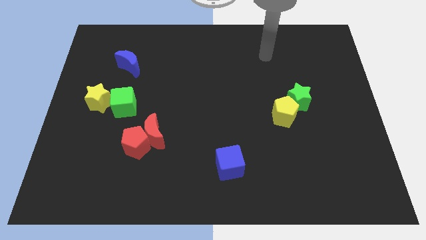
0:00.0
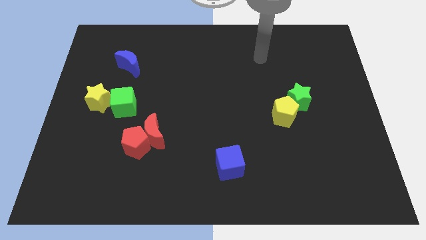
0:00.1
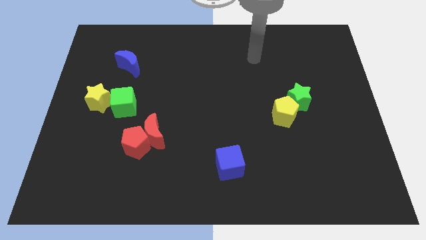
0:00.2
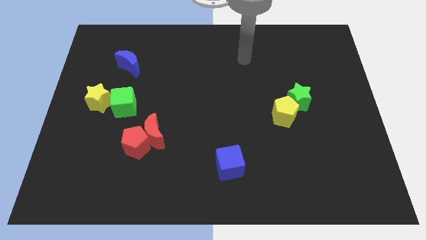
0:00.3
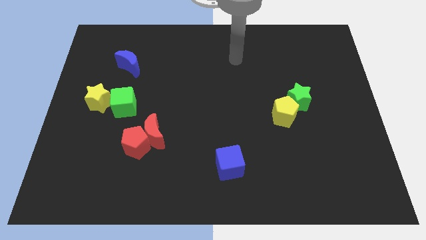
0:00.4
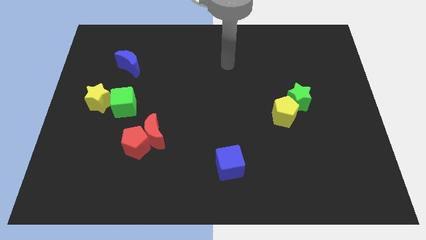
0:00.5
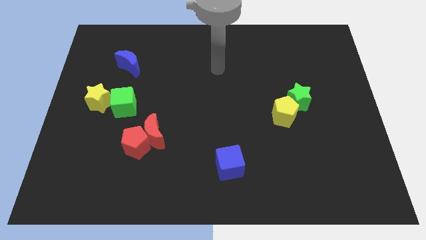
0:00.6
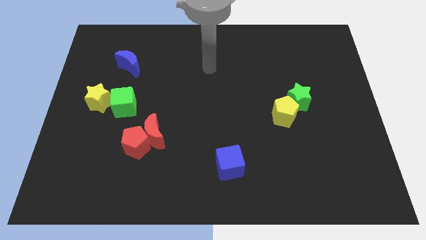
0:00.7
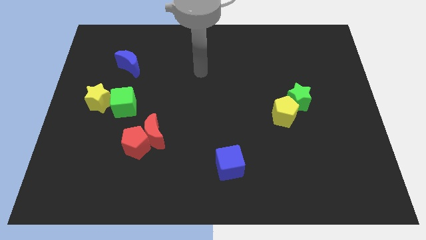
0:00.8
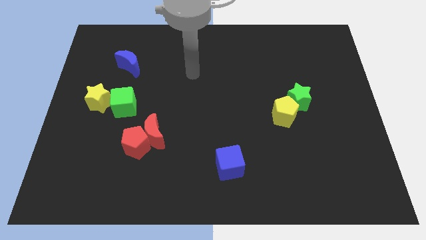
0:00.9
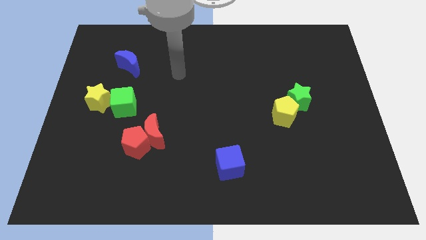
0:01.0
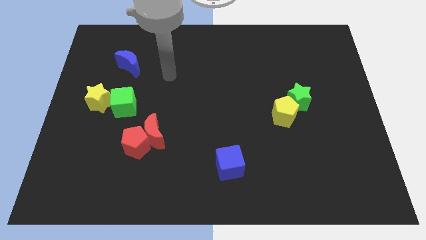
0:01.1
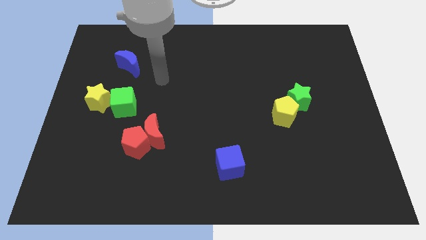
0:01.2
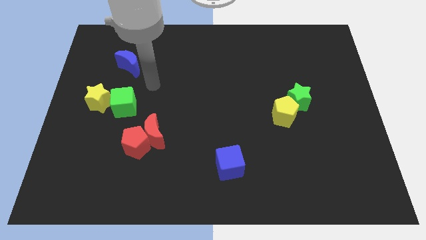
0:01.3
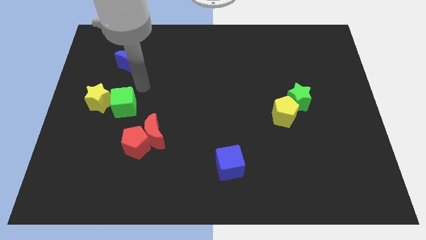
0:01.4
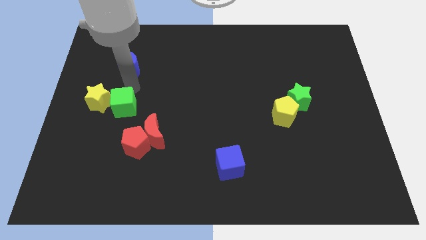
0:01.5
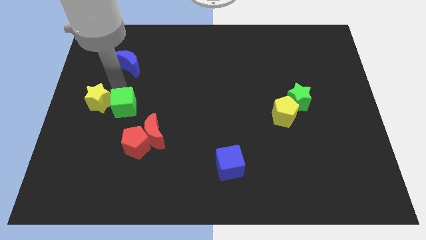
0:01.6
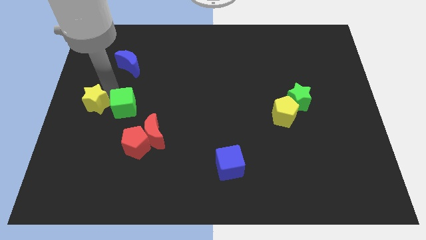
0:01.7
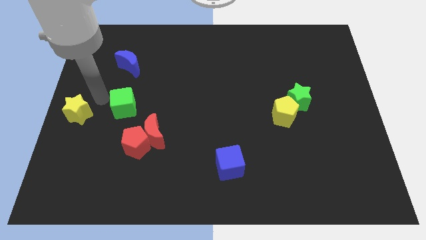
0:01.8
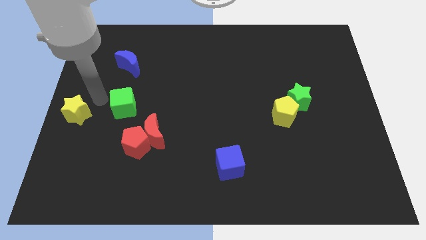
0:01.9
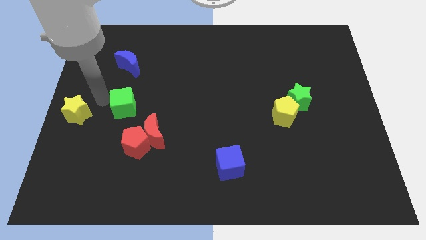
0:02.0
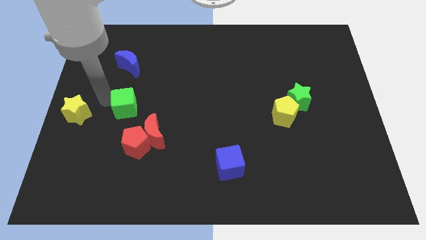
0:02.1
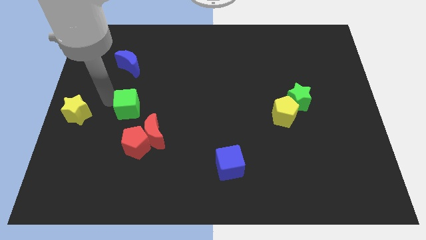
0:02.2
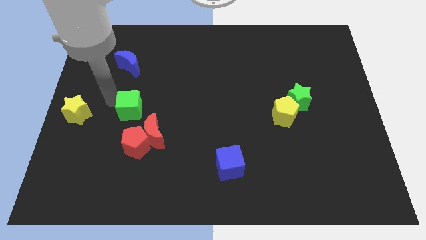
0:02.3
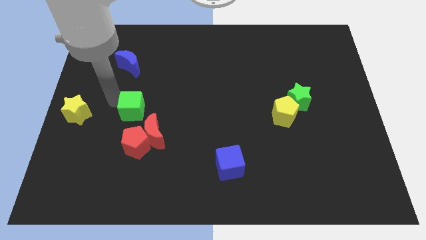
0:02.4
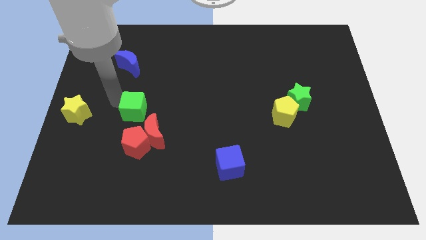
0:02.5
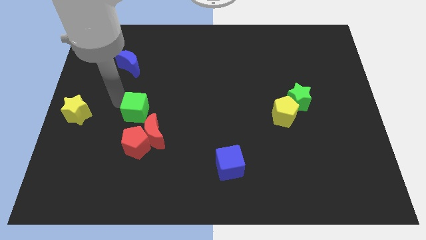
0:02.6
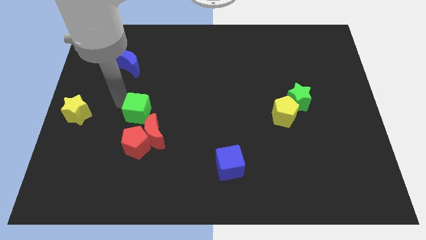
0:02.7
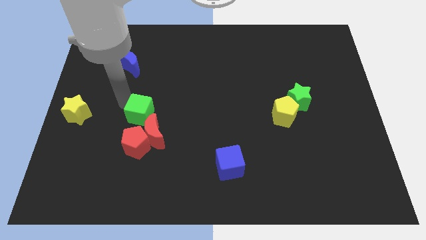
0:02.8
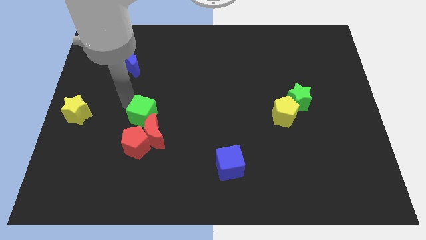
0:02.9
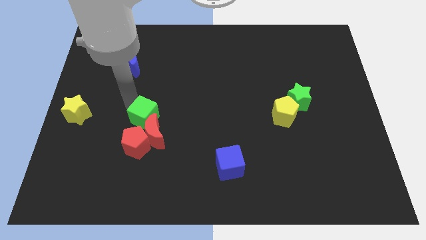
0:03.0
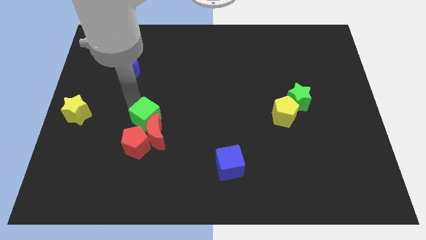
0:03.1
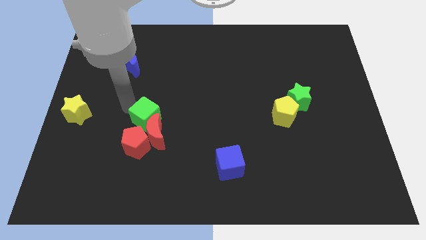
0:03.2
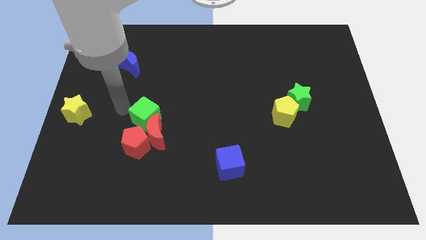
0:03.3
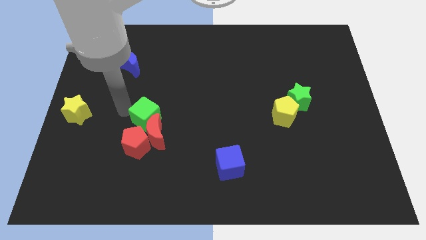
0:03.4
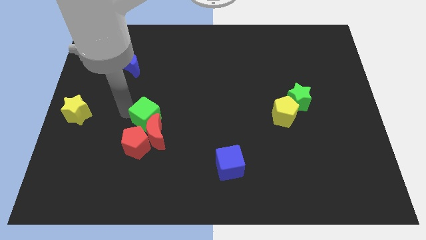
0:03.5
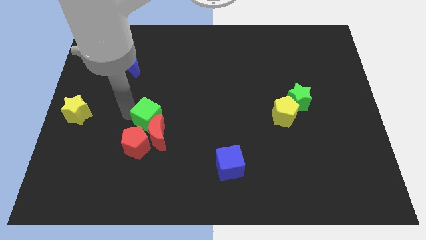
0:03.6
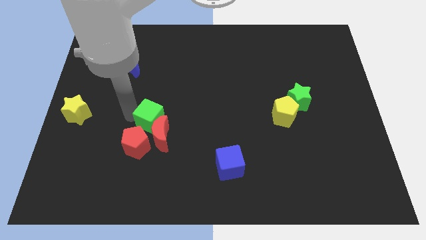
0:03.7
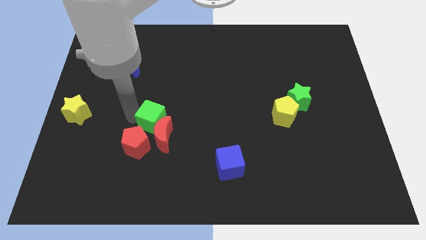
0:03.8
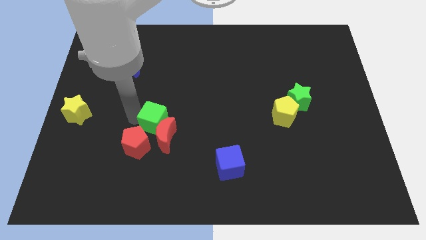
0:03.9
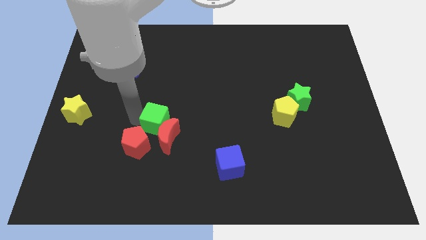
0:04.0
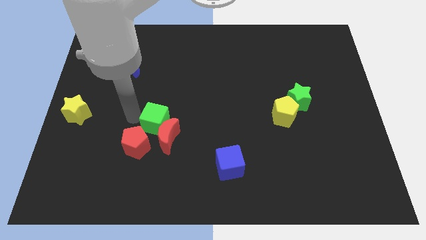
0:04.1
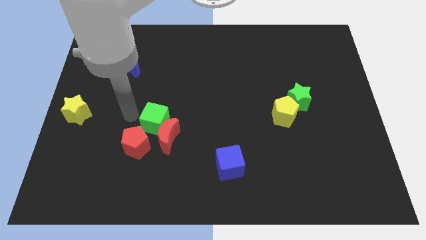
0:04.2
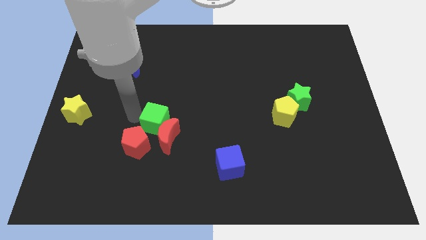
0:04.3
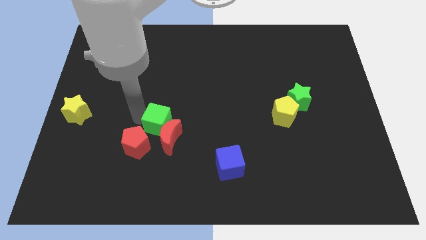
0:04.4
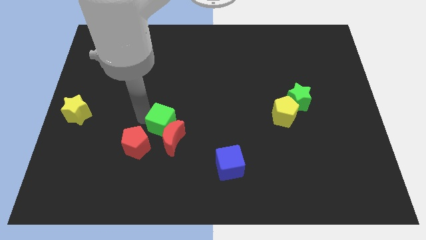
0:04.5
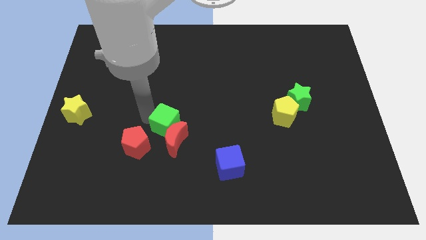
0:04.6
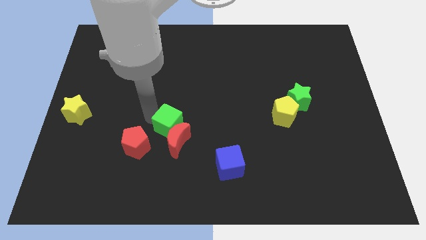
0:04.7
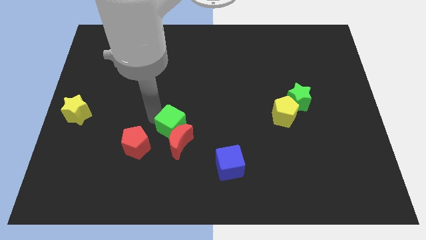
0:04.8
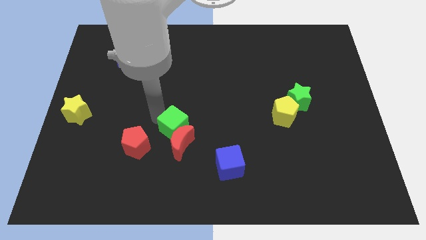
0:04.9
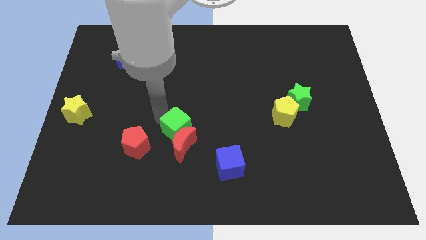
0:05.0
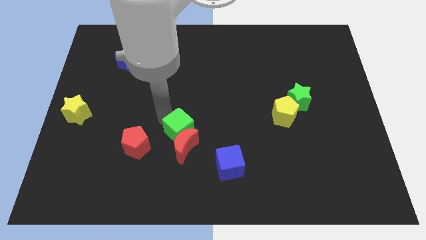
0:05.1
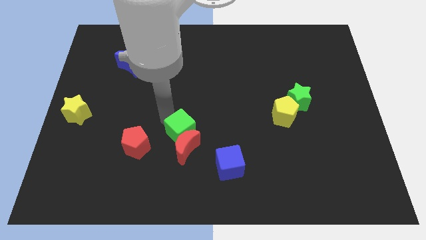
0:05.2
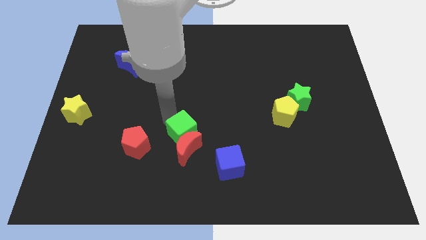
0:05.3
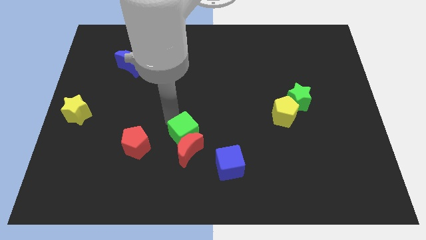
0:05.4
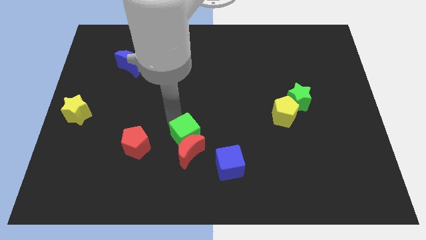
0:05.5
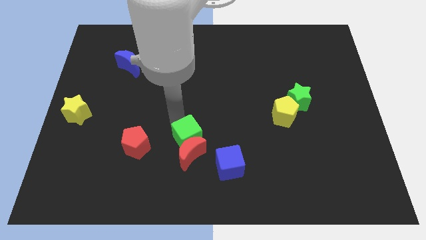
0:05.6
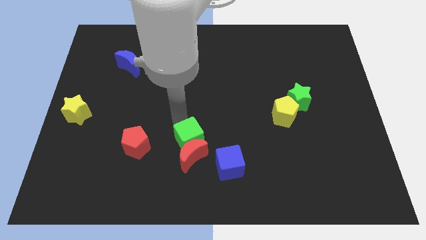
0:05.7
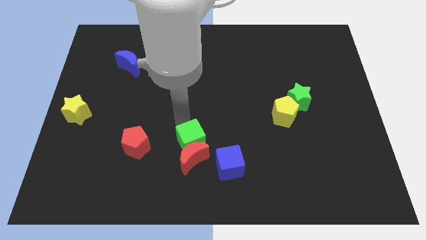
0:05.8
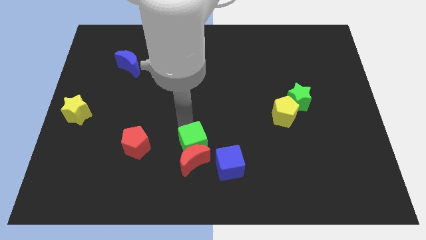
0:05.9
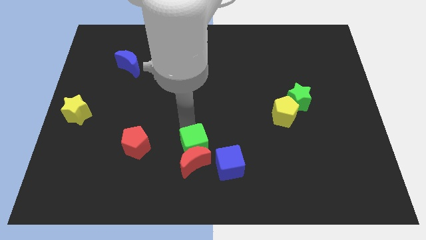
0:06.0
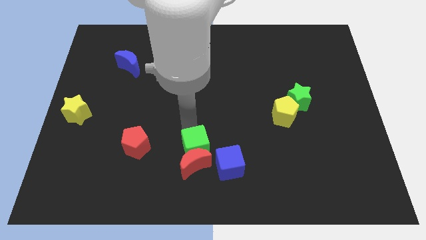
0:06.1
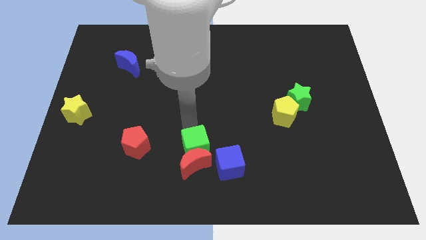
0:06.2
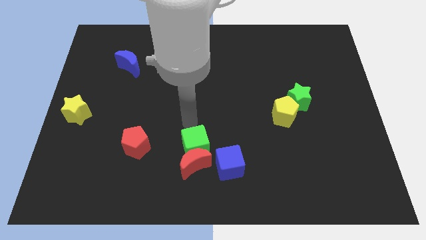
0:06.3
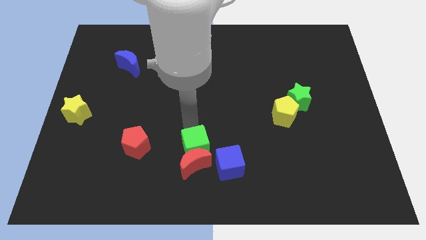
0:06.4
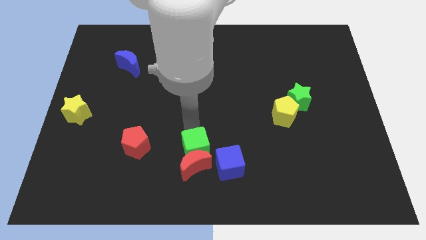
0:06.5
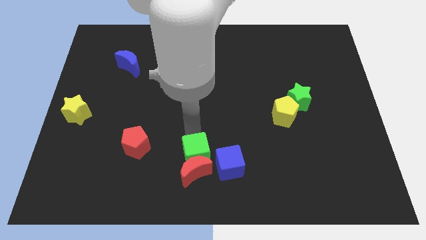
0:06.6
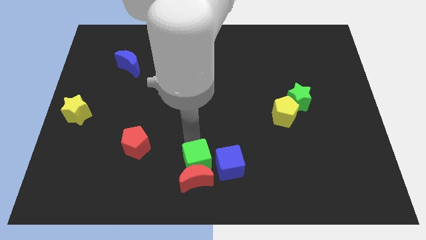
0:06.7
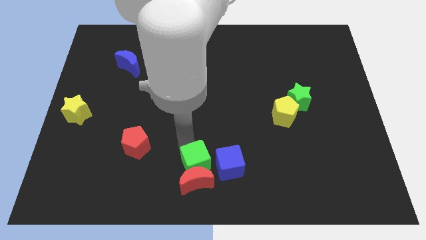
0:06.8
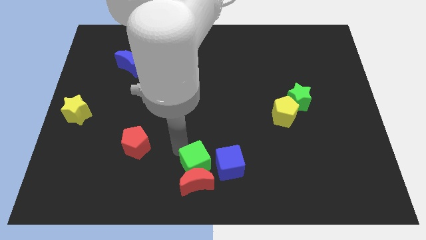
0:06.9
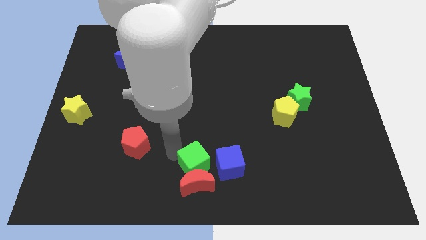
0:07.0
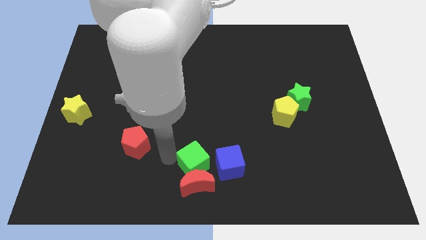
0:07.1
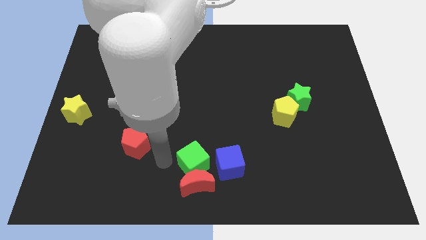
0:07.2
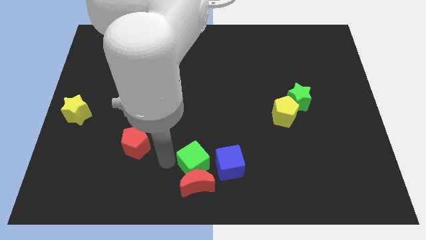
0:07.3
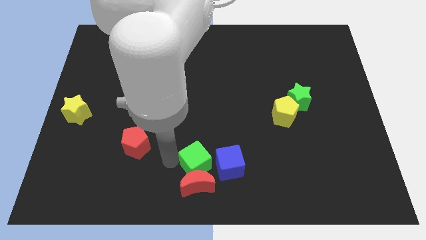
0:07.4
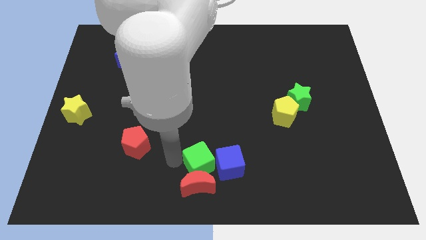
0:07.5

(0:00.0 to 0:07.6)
push the green cube to the blue cube
